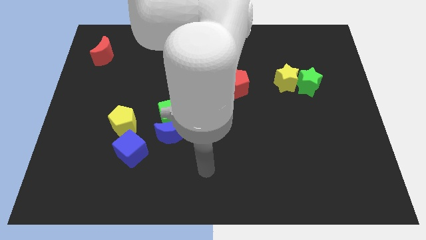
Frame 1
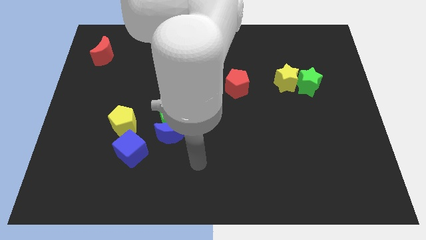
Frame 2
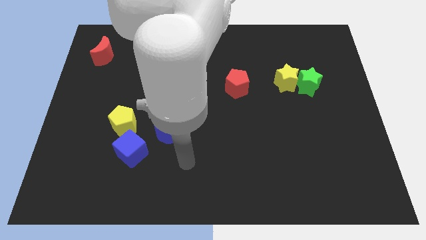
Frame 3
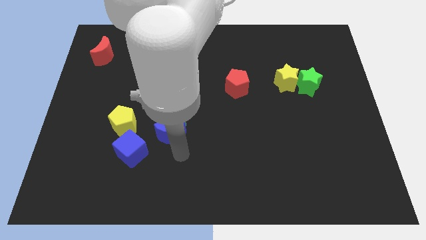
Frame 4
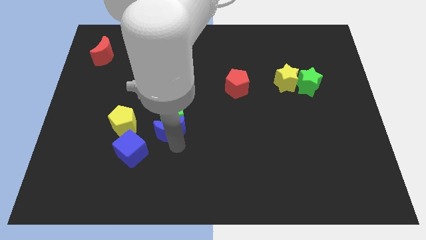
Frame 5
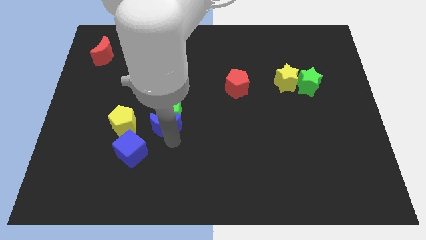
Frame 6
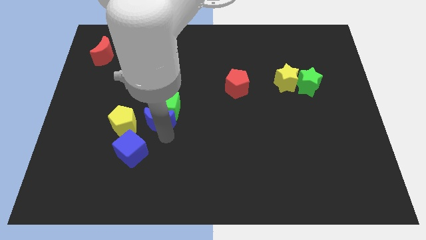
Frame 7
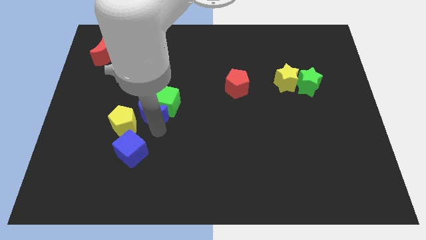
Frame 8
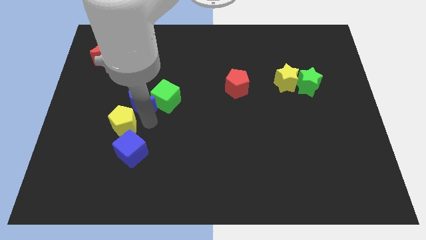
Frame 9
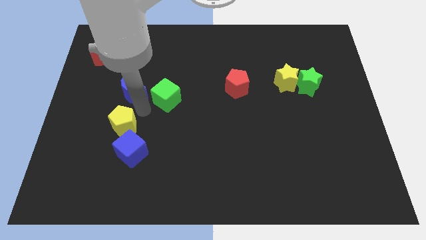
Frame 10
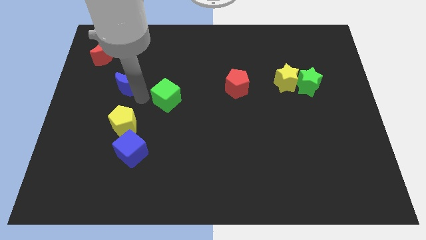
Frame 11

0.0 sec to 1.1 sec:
pull the green cube apart from the blue moon

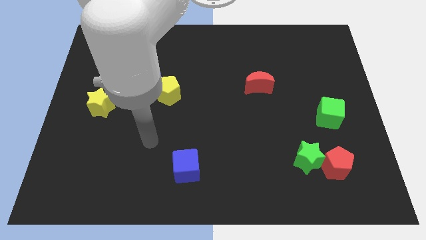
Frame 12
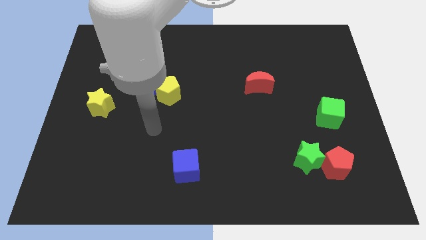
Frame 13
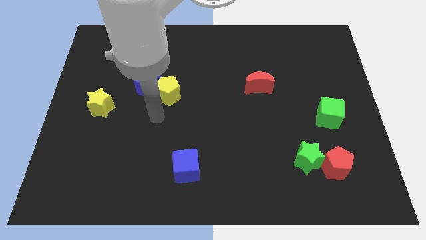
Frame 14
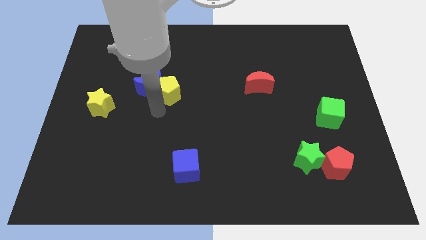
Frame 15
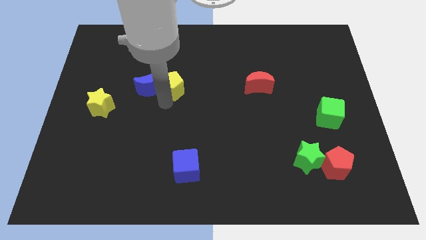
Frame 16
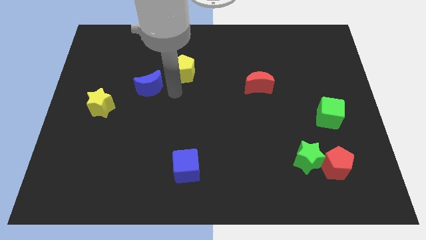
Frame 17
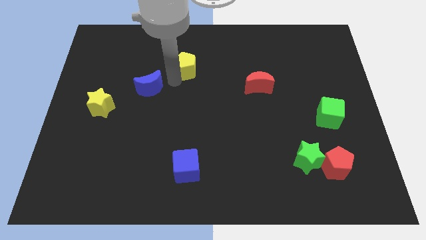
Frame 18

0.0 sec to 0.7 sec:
pull the blue moon apart from the yellow pentagon

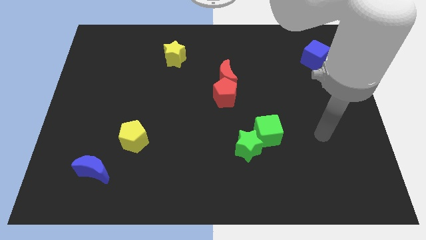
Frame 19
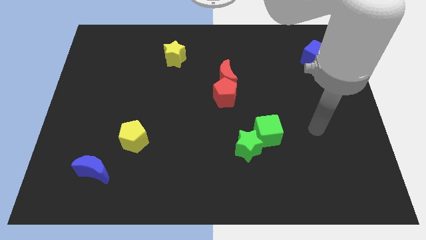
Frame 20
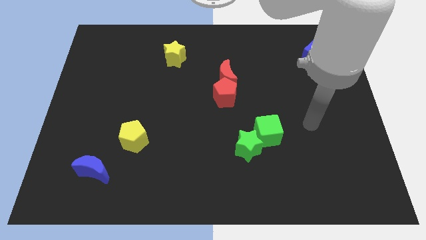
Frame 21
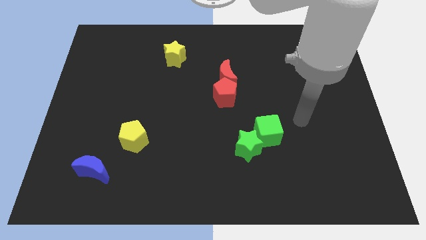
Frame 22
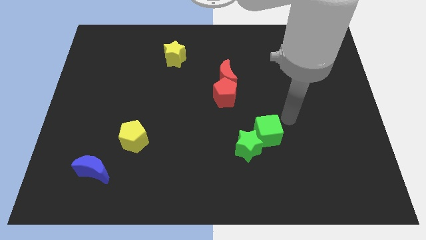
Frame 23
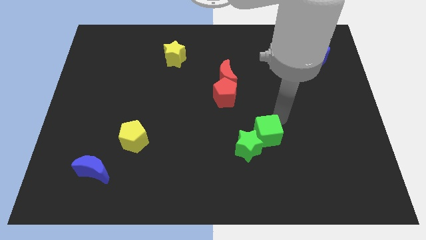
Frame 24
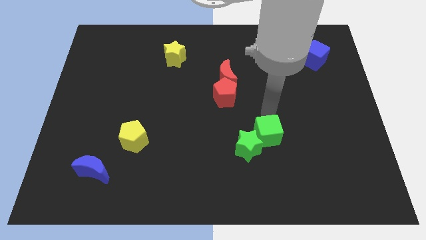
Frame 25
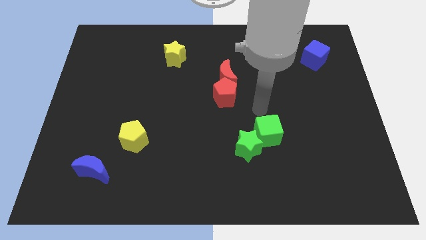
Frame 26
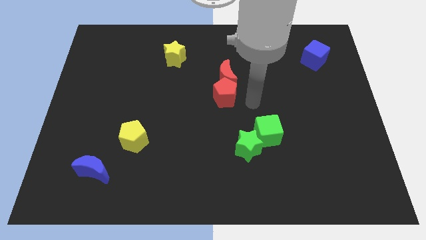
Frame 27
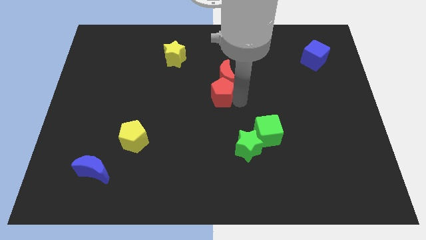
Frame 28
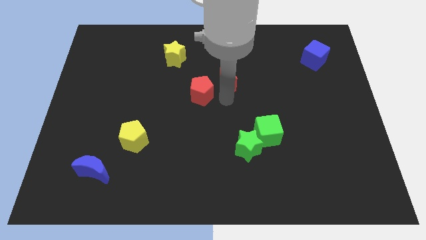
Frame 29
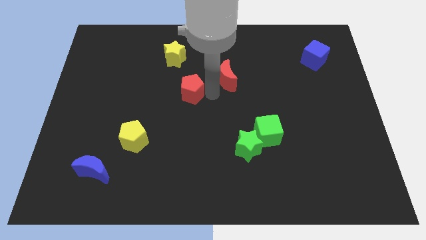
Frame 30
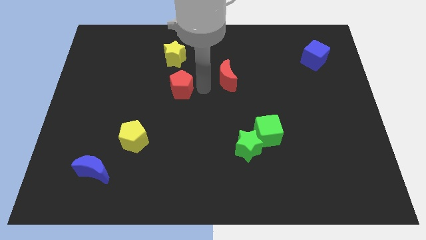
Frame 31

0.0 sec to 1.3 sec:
move the red moon away from the red pentagon

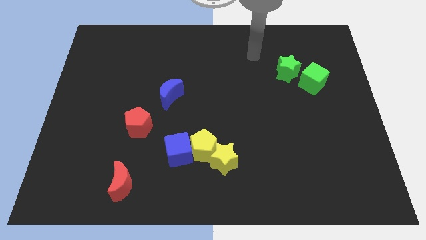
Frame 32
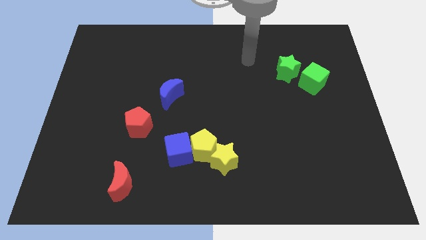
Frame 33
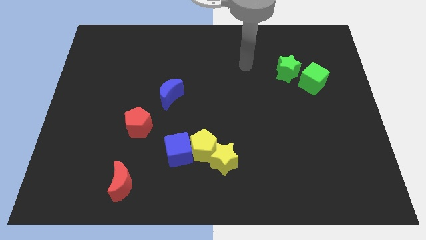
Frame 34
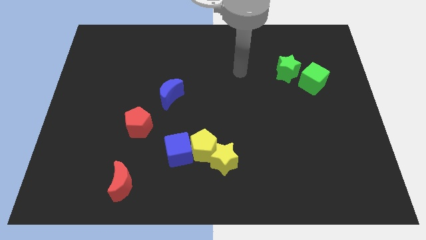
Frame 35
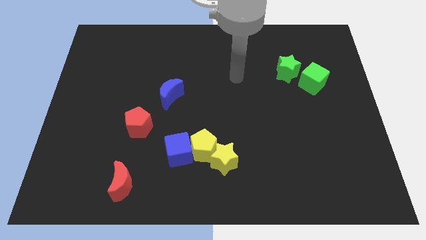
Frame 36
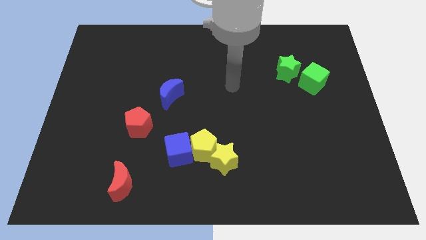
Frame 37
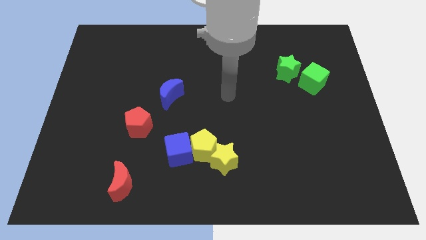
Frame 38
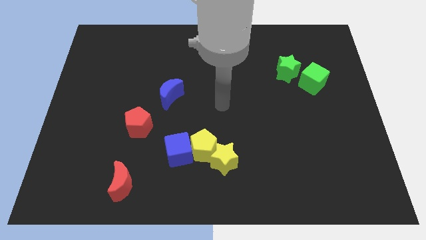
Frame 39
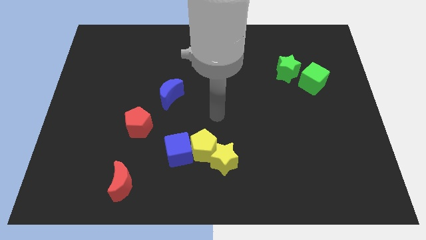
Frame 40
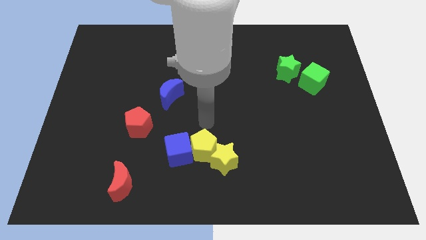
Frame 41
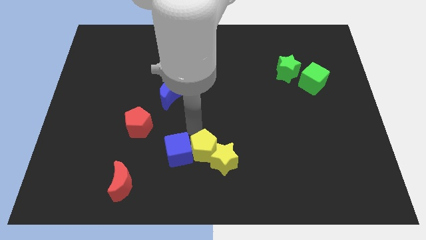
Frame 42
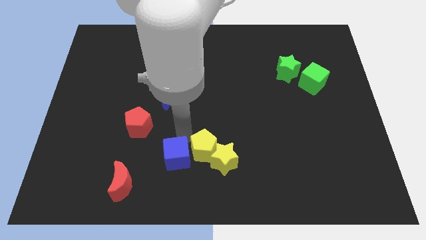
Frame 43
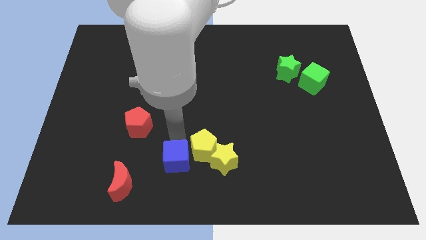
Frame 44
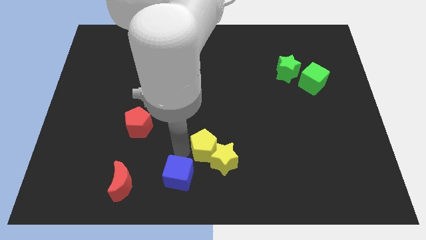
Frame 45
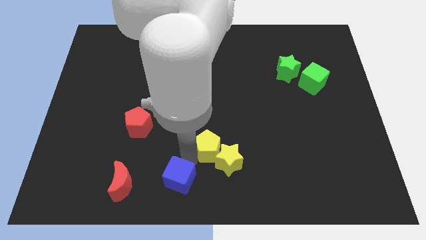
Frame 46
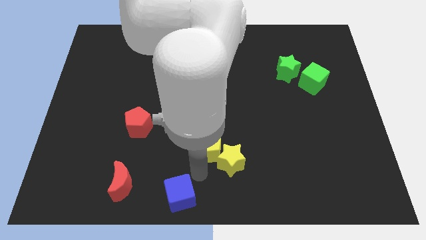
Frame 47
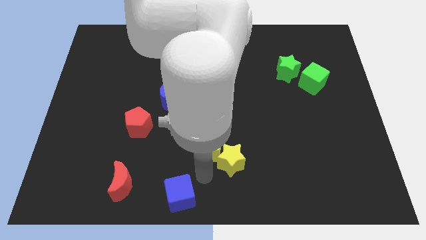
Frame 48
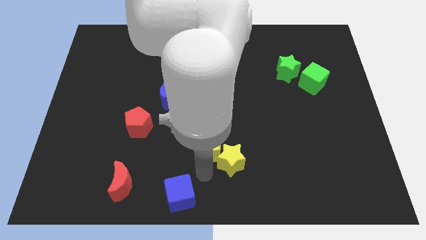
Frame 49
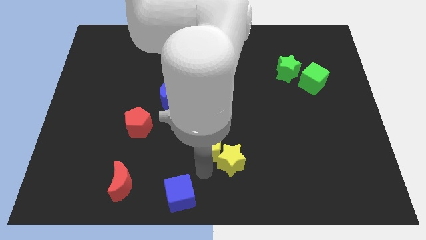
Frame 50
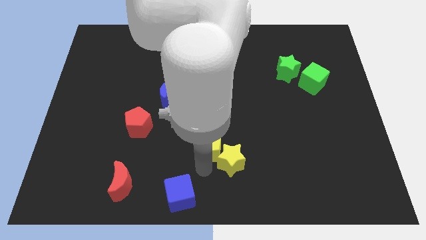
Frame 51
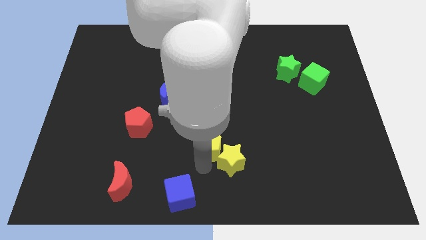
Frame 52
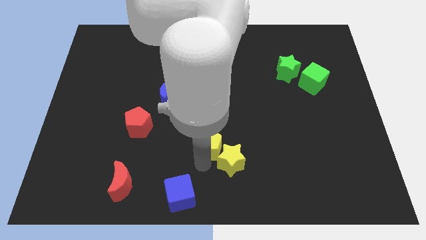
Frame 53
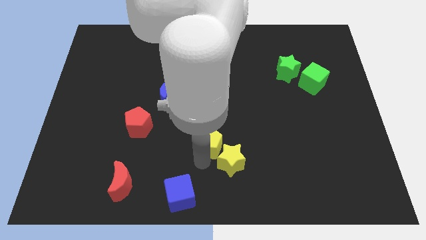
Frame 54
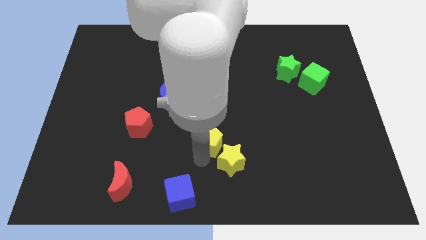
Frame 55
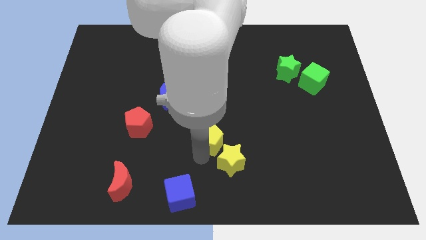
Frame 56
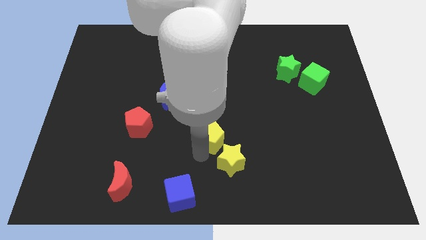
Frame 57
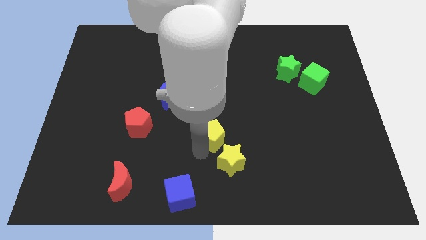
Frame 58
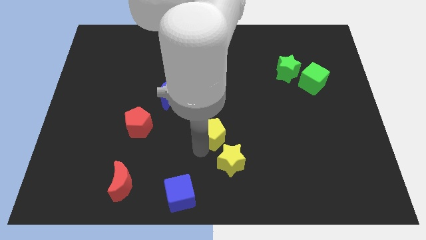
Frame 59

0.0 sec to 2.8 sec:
pull the yellow pentagon apart from the blue cube and yellow star

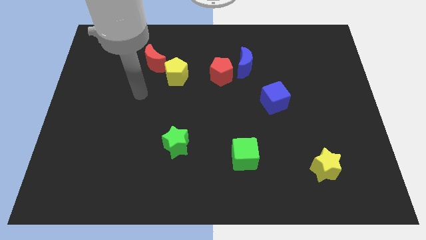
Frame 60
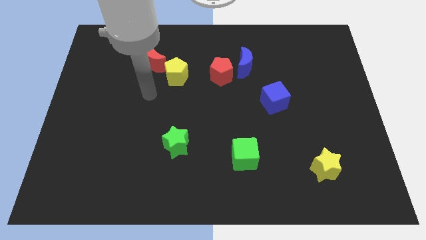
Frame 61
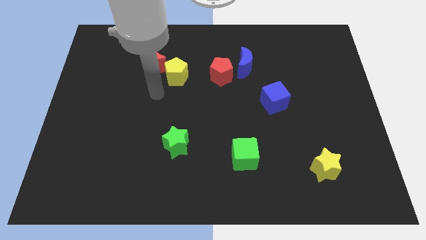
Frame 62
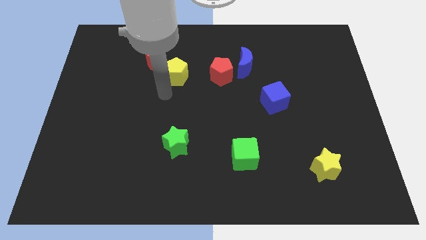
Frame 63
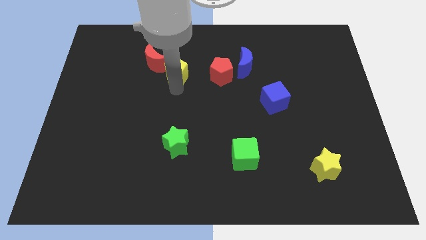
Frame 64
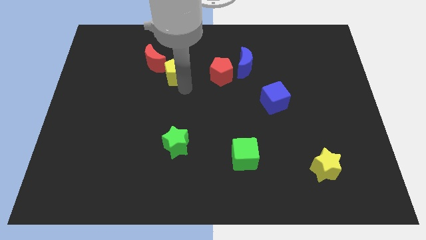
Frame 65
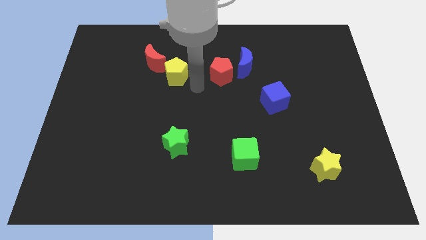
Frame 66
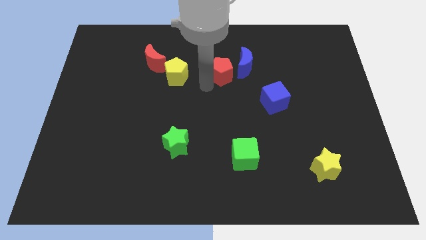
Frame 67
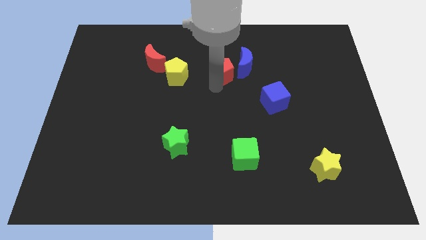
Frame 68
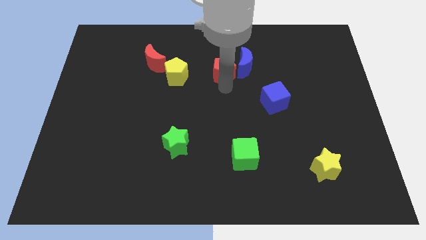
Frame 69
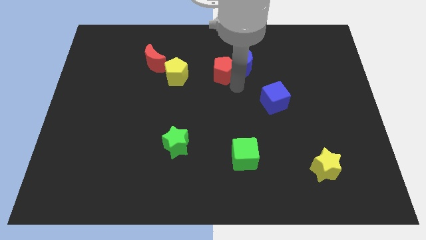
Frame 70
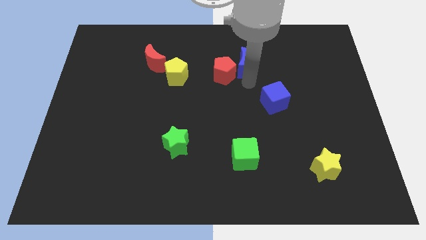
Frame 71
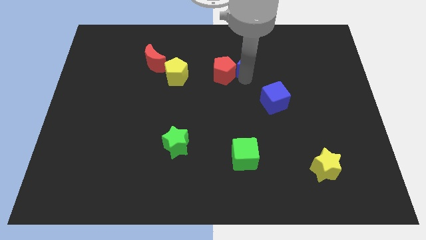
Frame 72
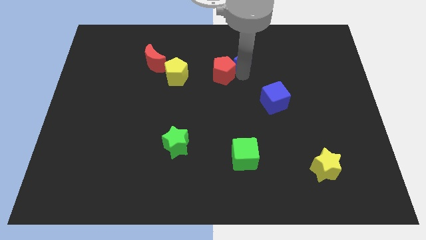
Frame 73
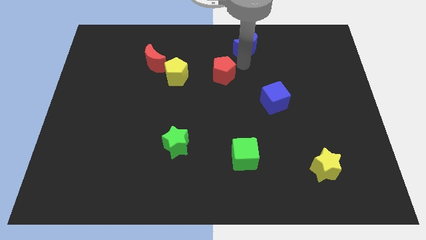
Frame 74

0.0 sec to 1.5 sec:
separate the red pentagon from the blue moon

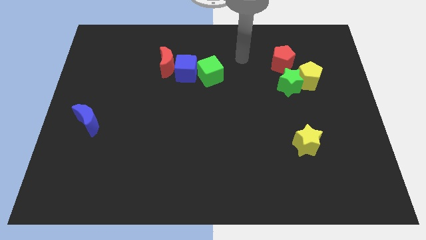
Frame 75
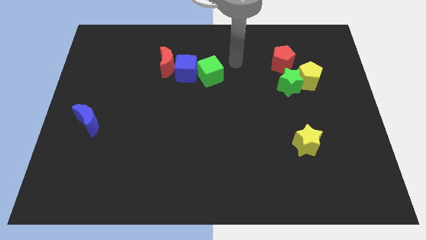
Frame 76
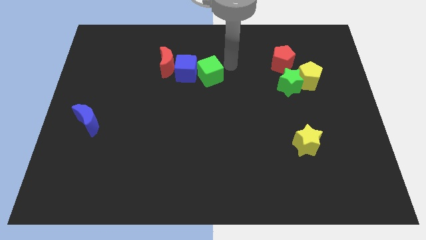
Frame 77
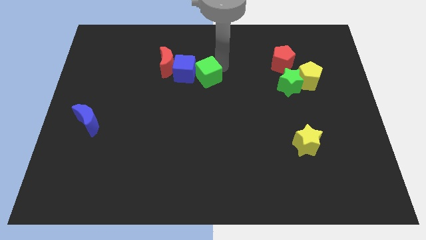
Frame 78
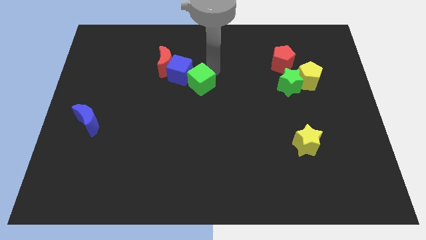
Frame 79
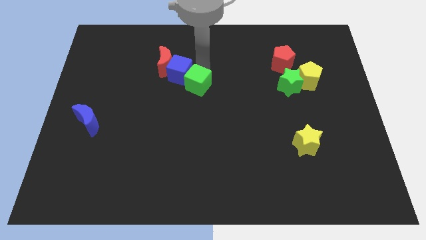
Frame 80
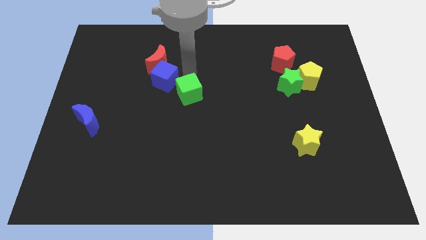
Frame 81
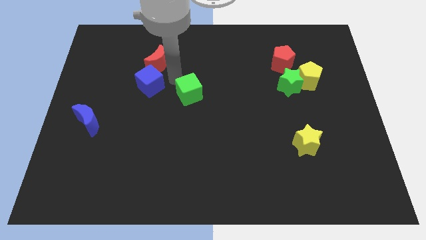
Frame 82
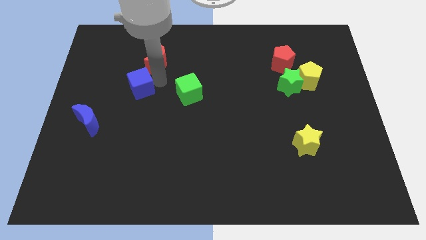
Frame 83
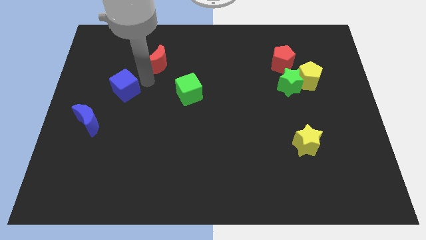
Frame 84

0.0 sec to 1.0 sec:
move the red moon away from the blue cube

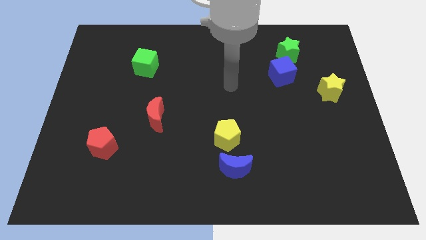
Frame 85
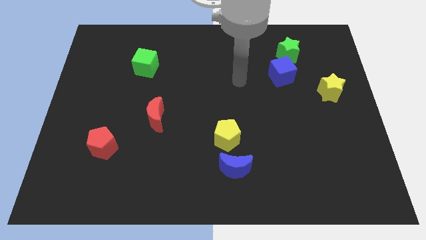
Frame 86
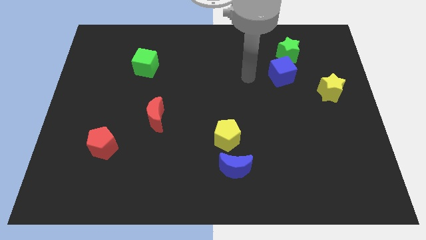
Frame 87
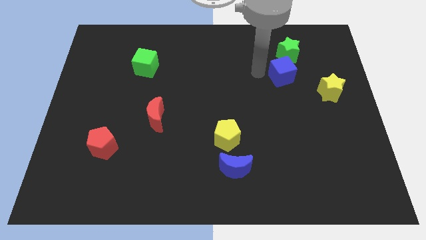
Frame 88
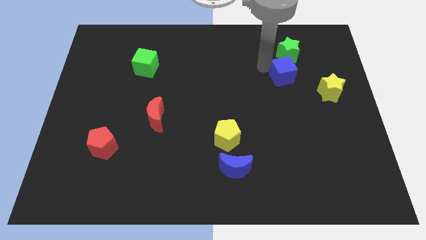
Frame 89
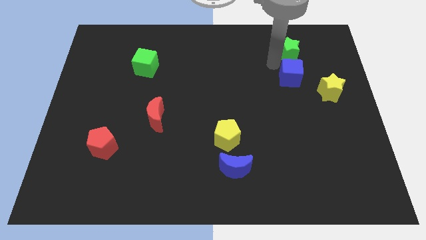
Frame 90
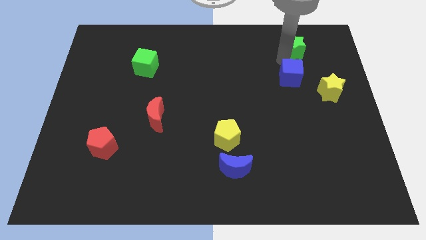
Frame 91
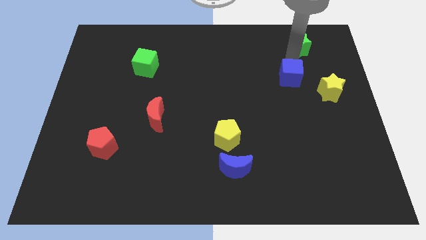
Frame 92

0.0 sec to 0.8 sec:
pull the blue cube apart from the green star

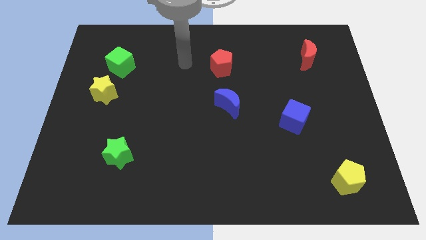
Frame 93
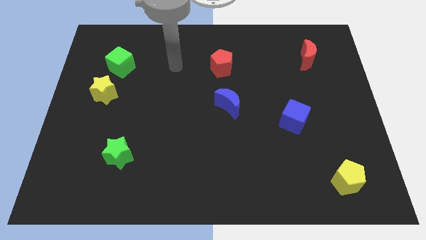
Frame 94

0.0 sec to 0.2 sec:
move the green cube away from the yellow star
